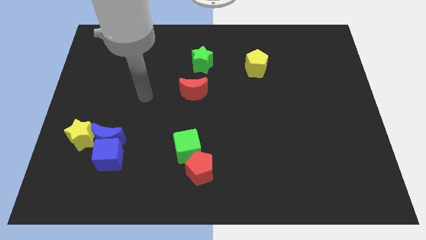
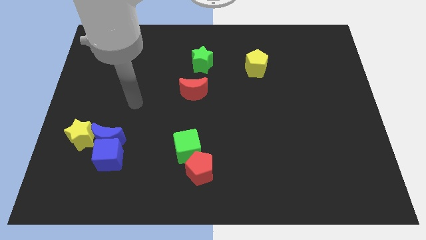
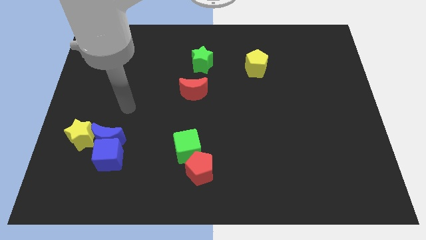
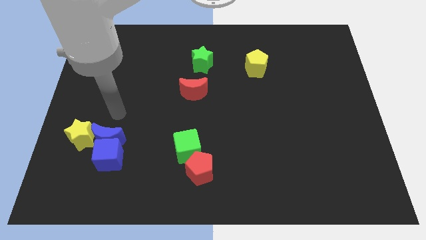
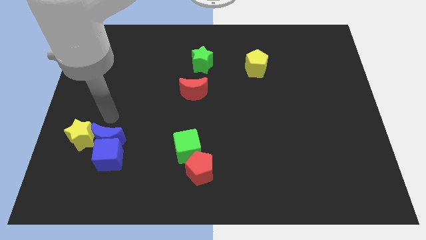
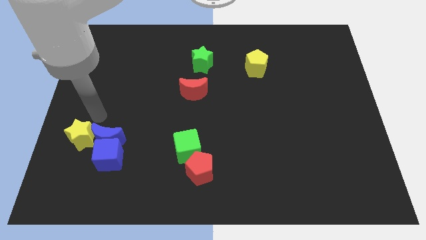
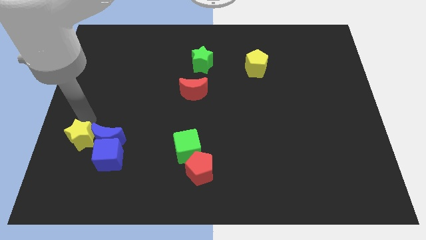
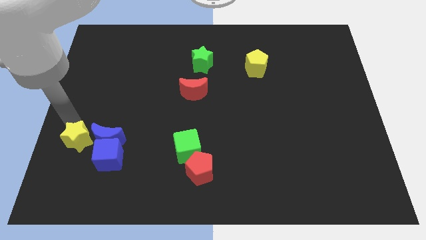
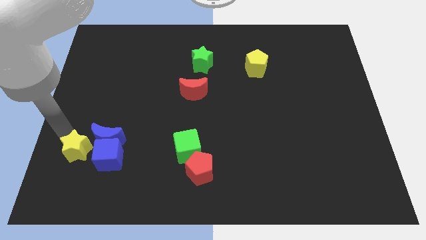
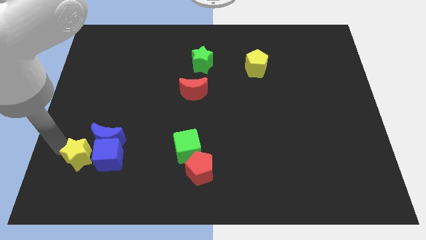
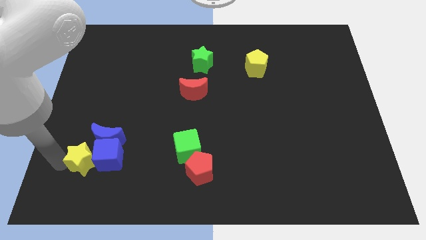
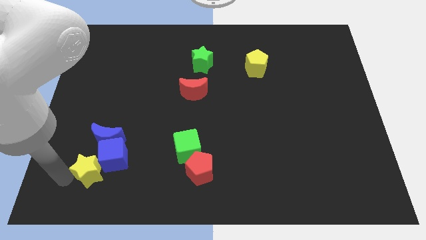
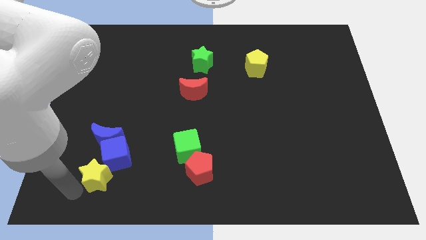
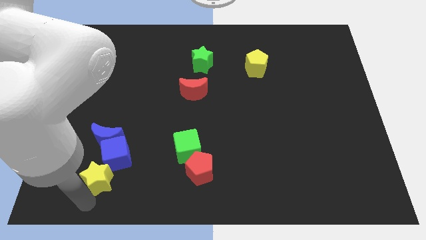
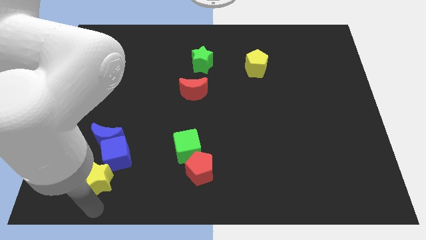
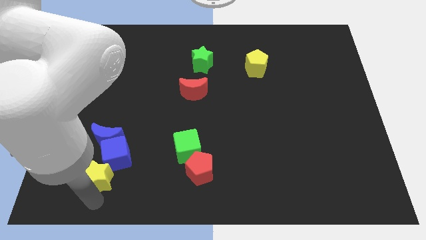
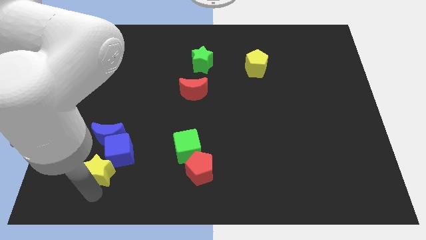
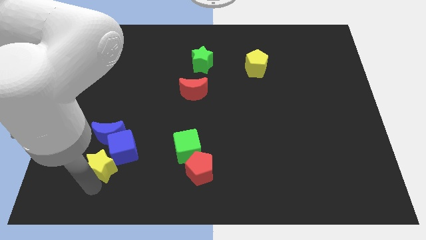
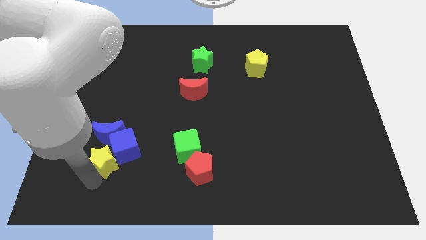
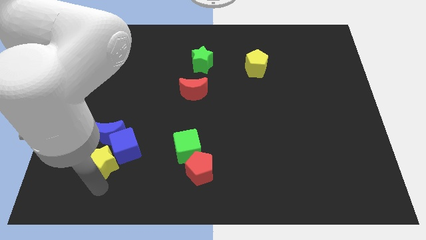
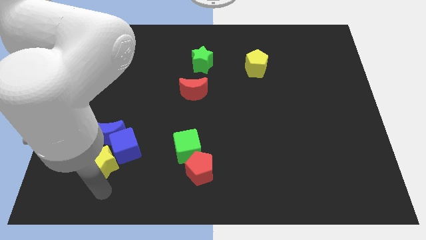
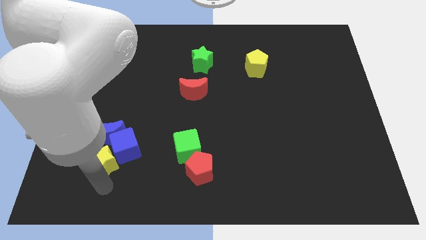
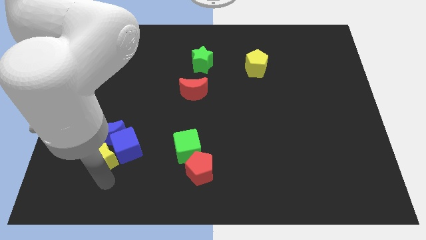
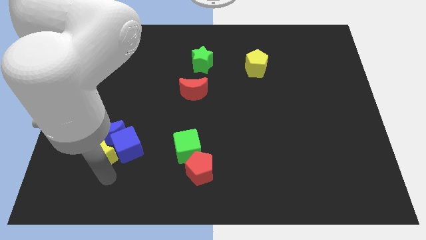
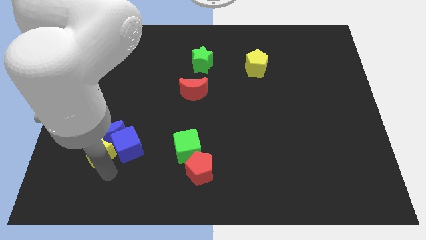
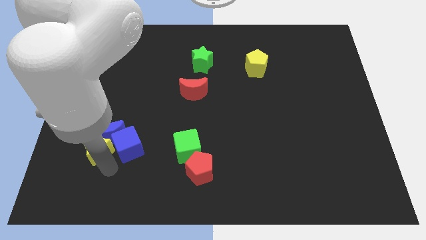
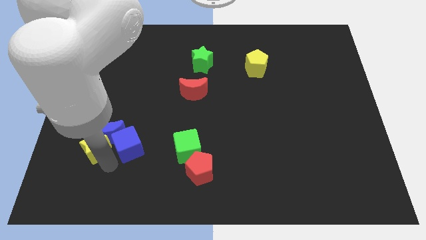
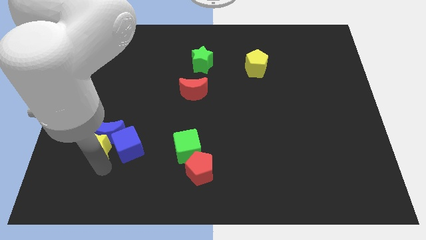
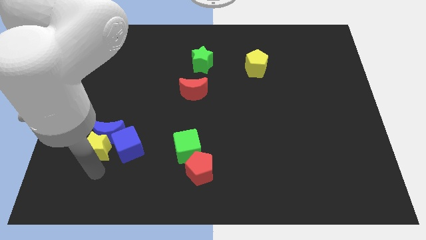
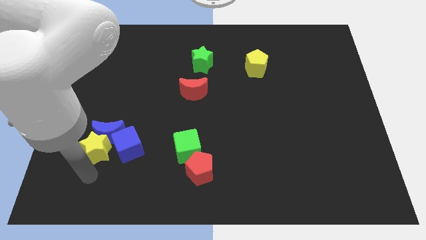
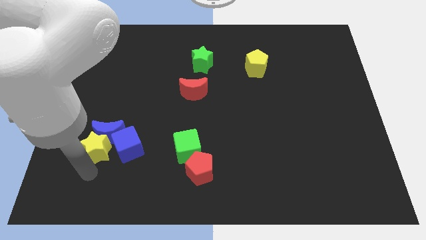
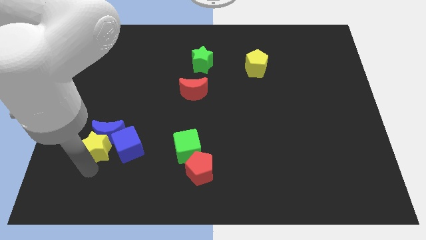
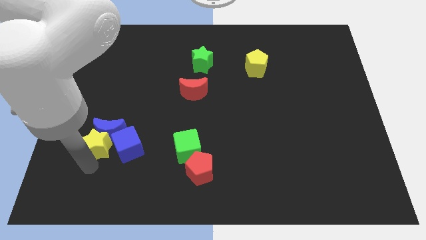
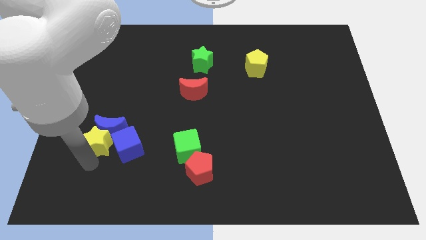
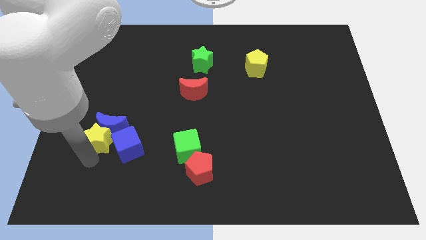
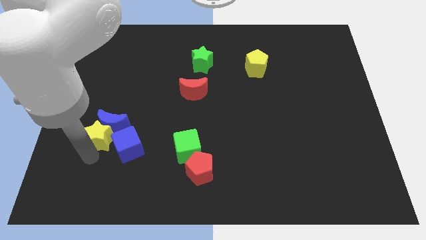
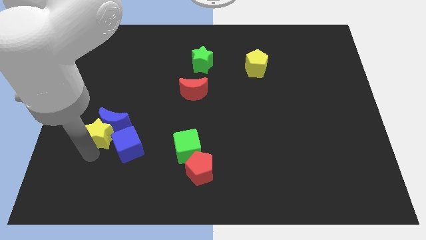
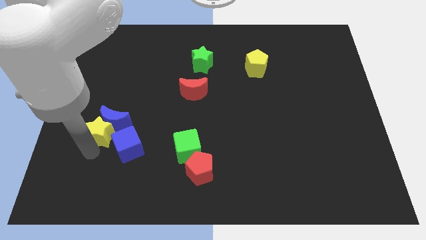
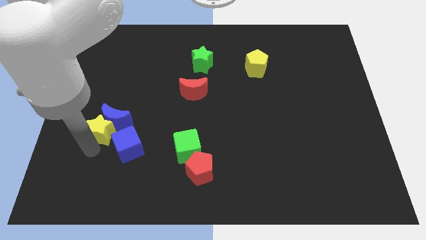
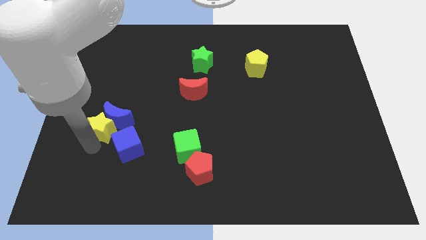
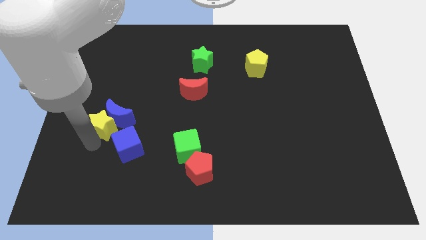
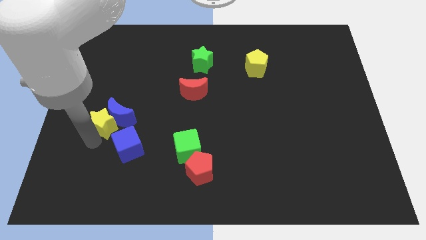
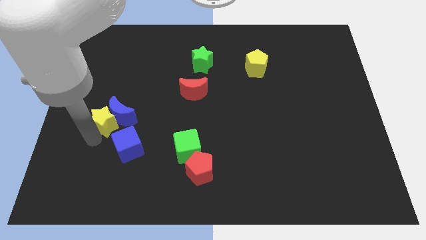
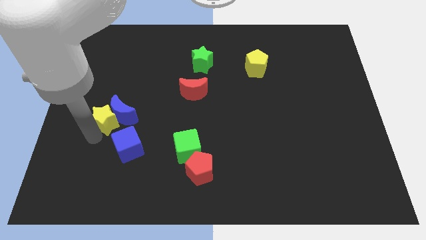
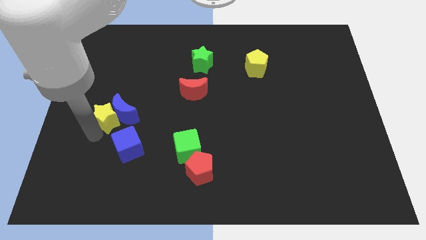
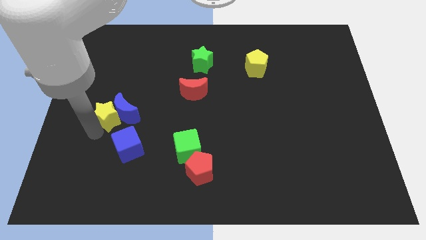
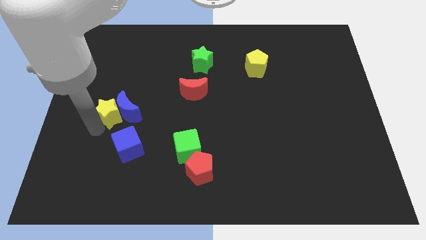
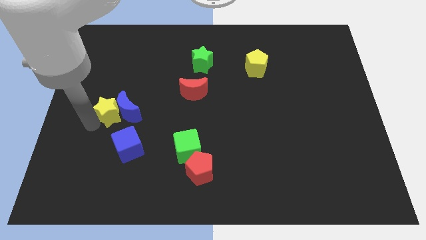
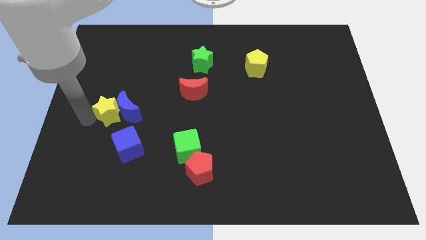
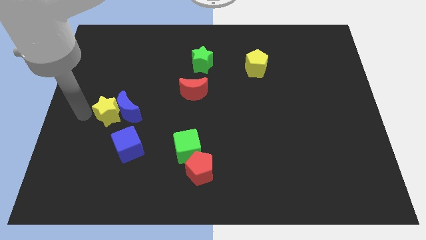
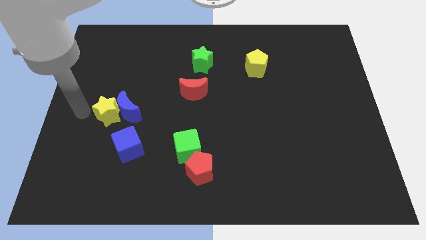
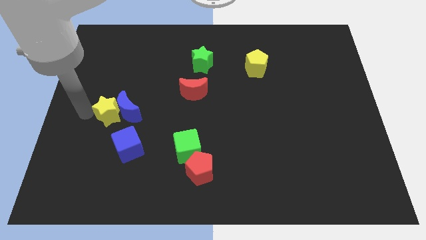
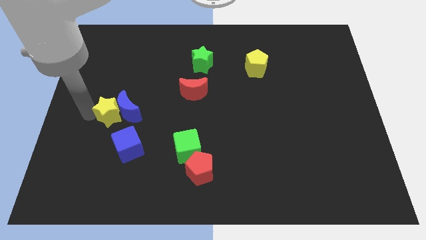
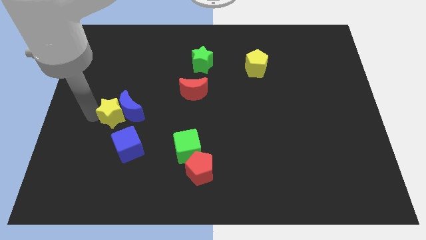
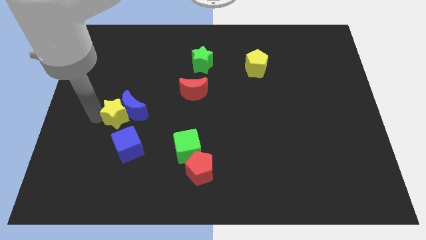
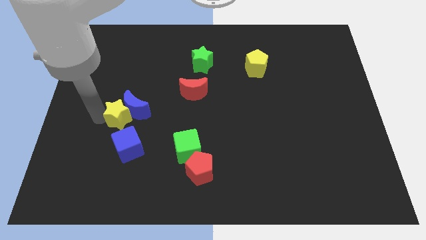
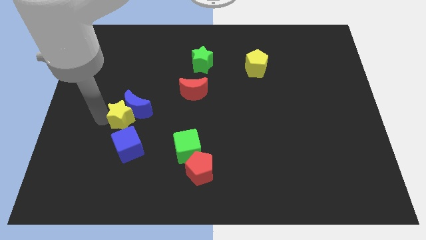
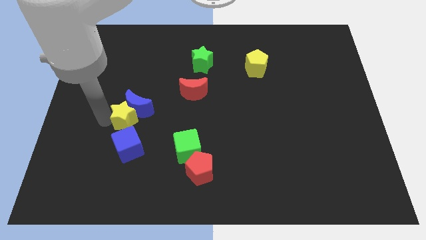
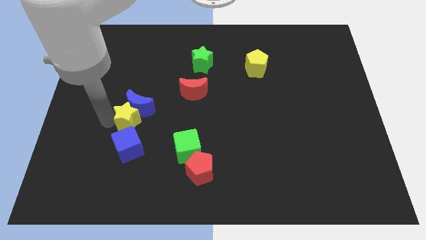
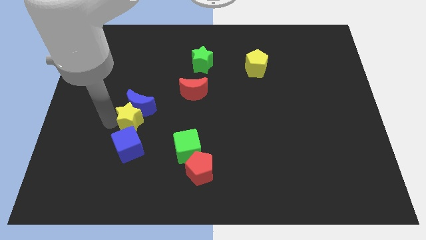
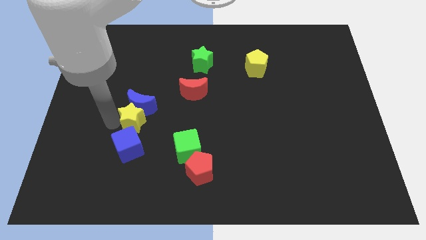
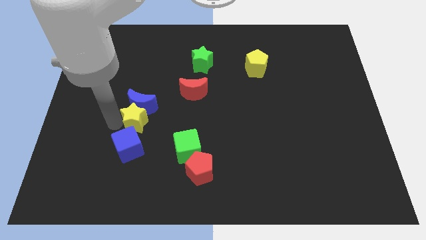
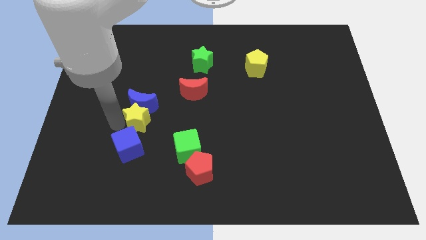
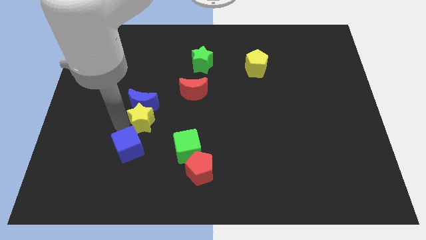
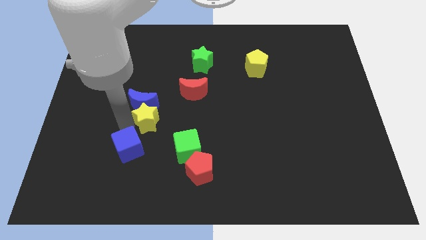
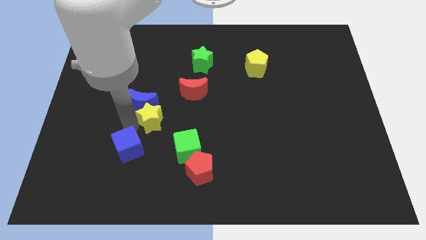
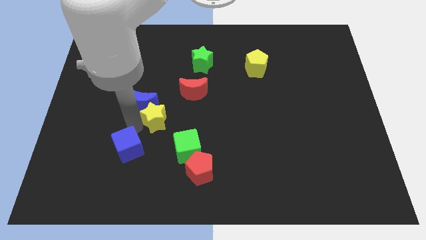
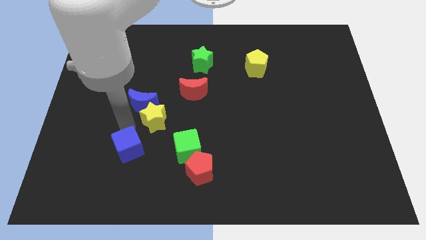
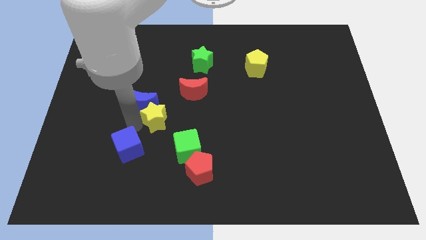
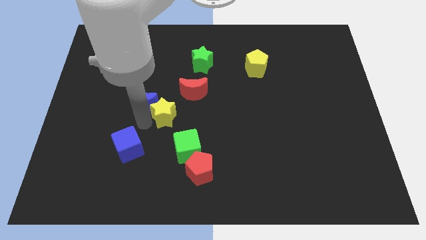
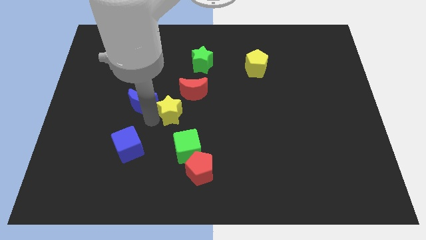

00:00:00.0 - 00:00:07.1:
push the yellow star above the green cube

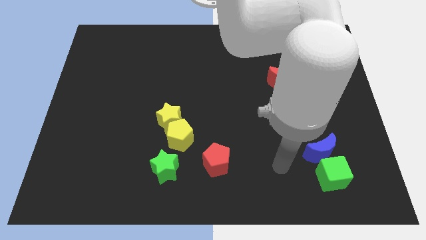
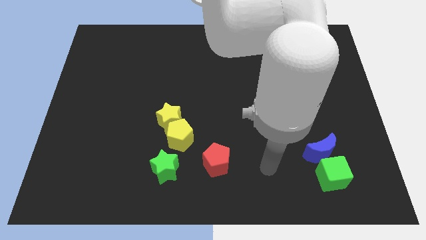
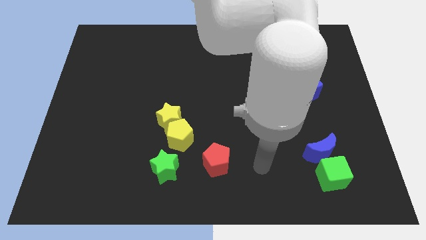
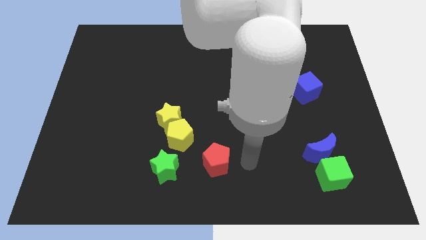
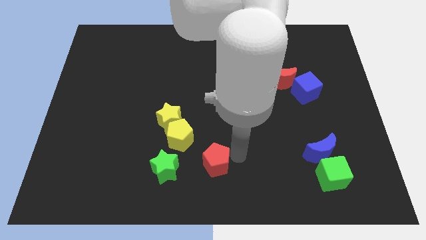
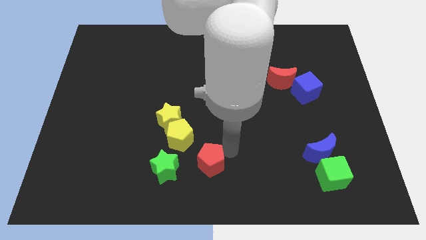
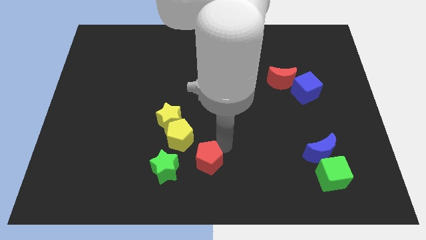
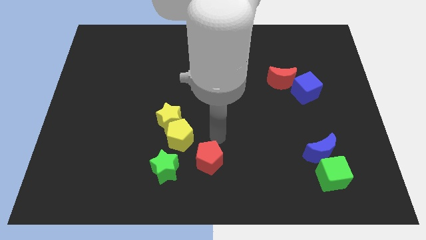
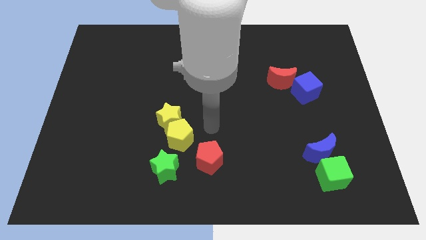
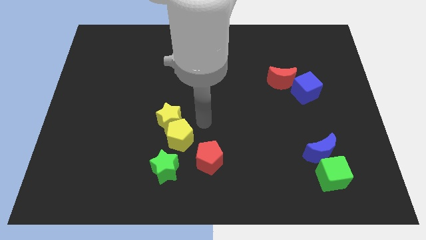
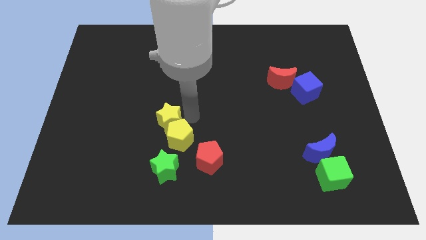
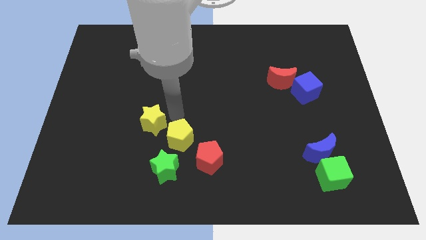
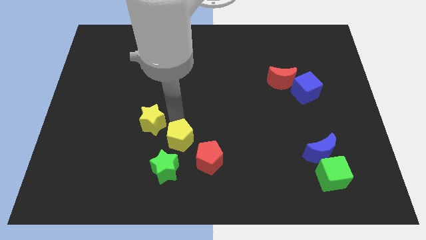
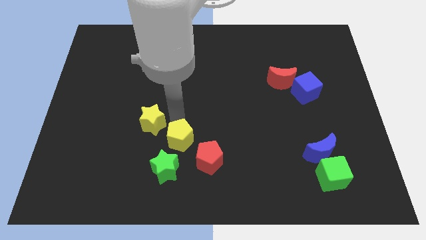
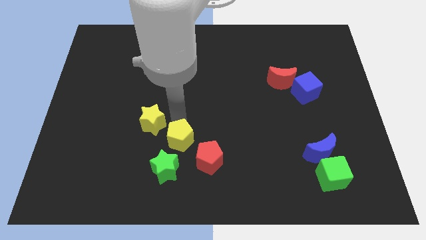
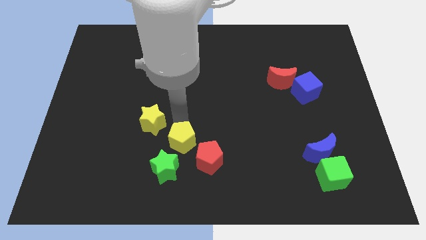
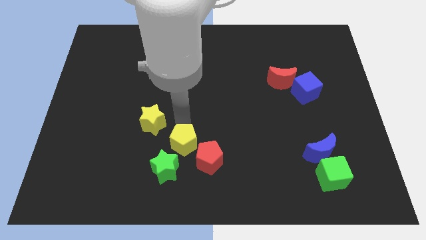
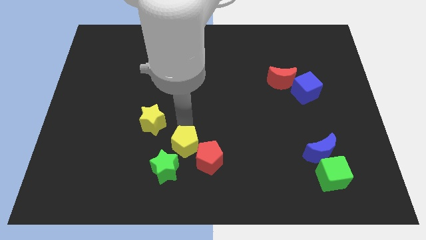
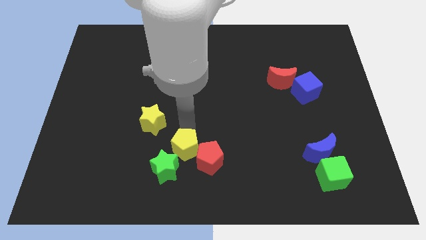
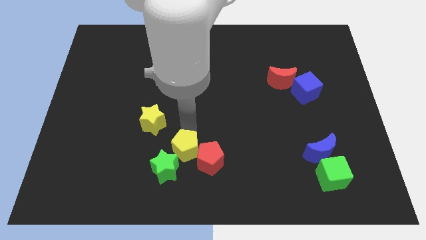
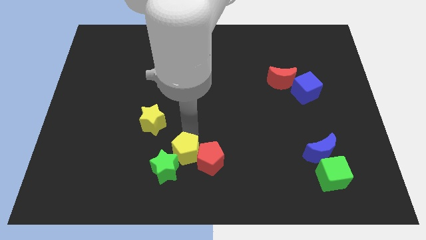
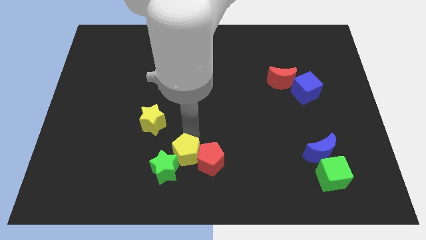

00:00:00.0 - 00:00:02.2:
put the yellow pentagon to the bottom left side of the red pentagon
